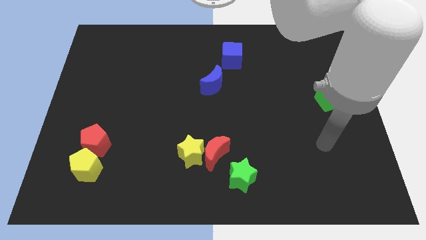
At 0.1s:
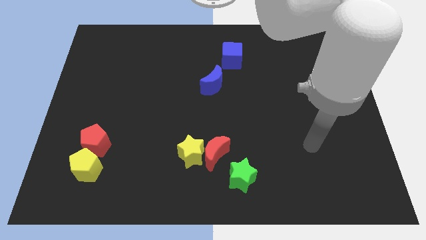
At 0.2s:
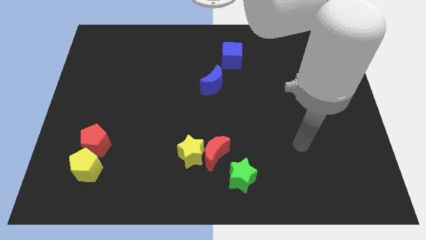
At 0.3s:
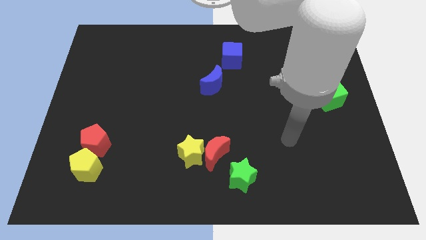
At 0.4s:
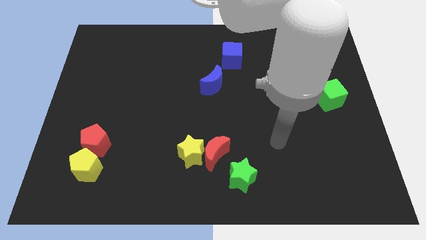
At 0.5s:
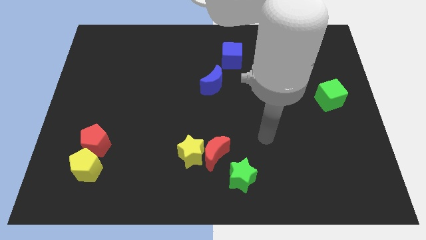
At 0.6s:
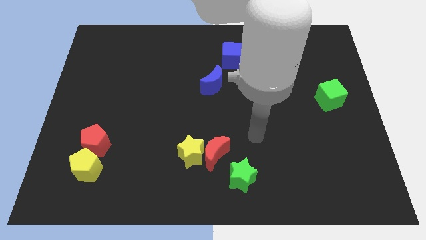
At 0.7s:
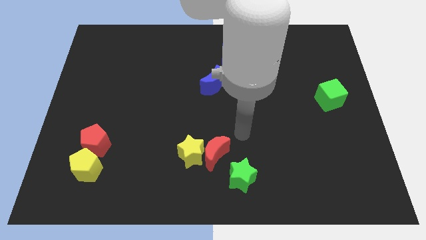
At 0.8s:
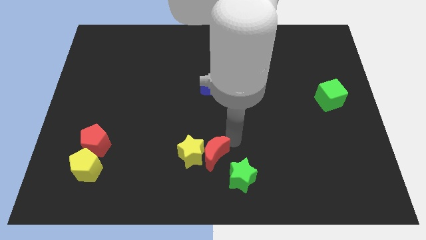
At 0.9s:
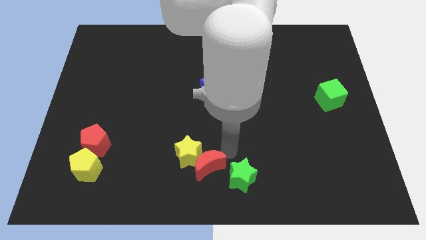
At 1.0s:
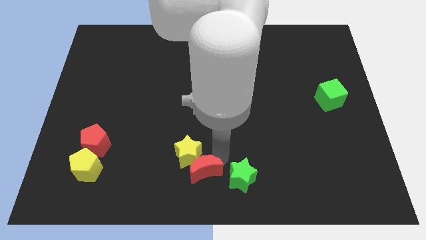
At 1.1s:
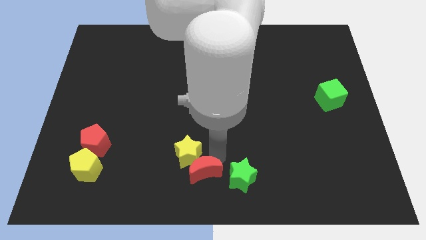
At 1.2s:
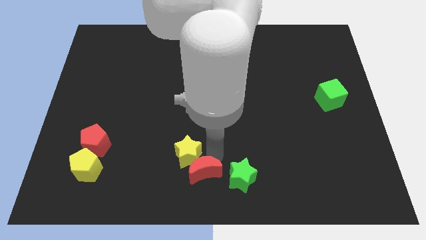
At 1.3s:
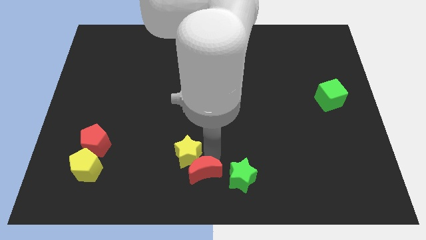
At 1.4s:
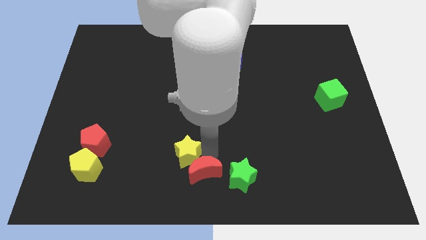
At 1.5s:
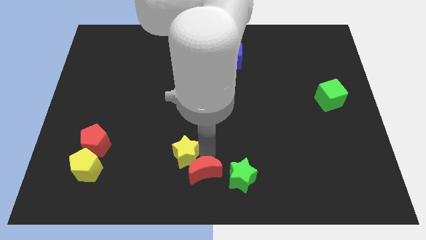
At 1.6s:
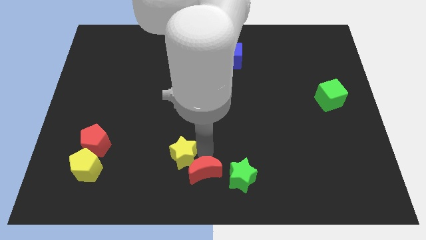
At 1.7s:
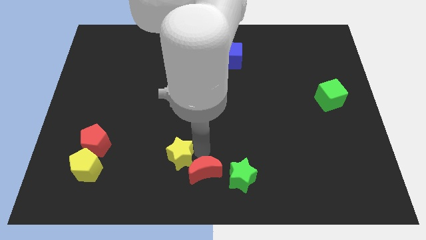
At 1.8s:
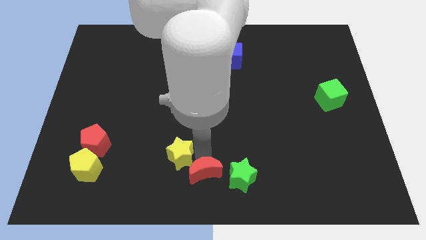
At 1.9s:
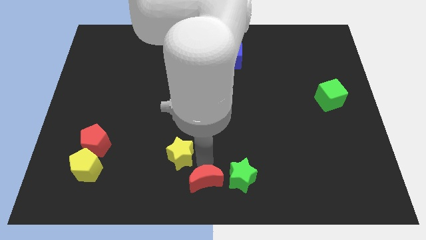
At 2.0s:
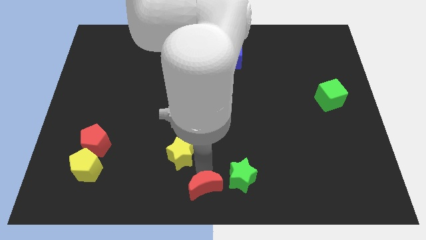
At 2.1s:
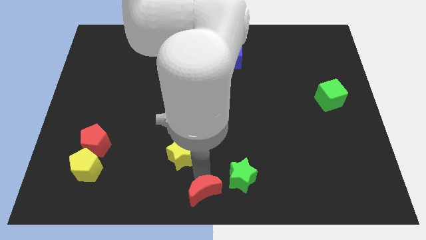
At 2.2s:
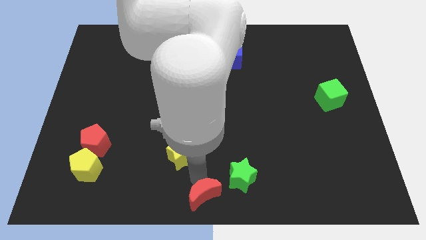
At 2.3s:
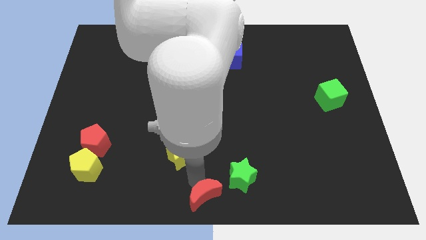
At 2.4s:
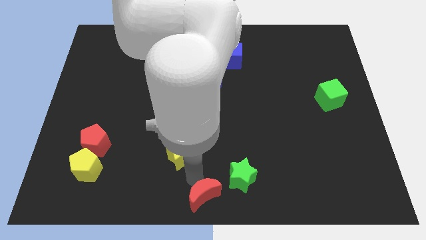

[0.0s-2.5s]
pull the yellow star apart from the red moon

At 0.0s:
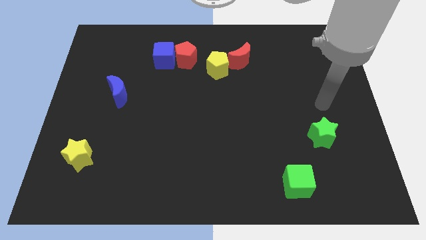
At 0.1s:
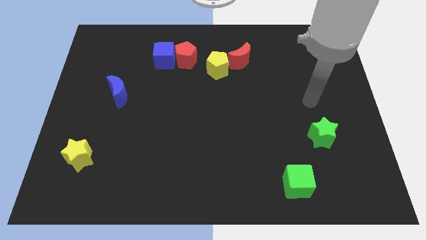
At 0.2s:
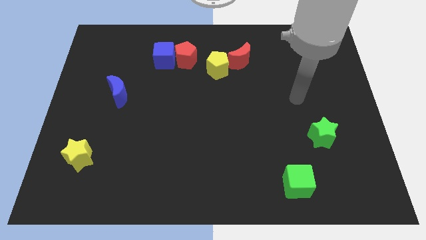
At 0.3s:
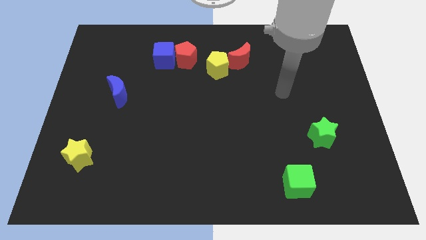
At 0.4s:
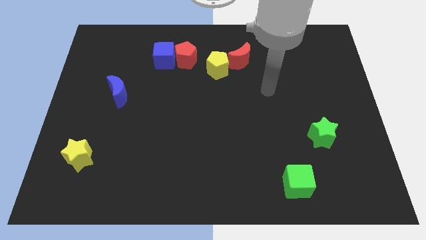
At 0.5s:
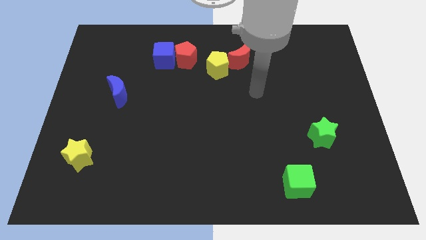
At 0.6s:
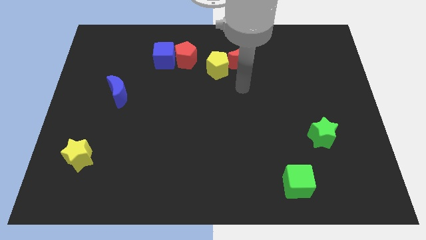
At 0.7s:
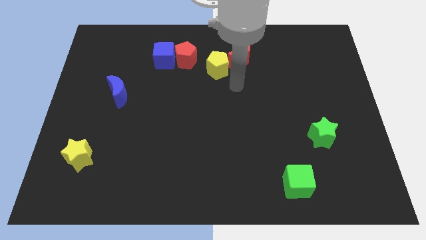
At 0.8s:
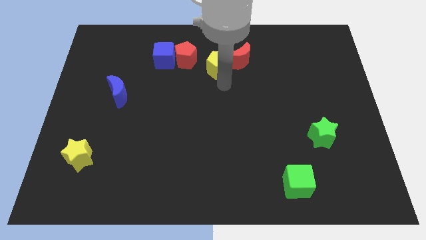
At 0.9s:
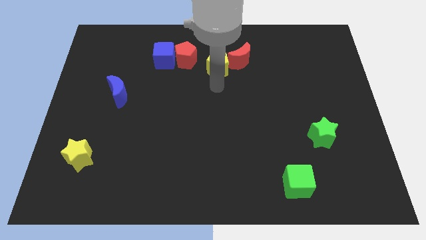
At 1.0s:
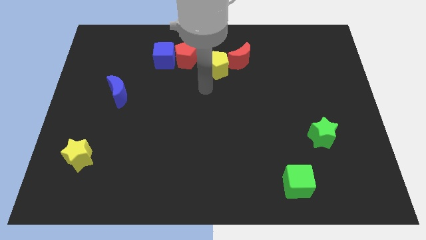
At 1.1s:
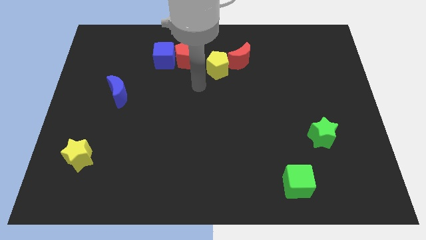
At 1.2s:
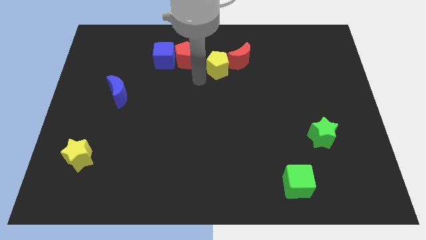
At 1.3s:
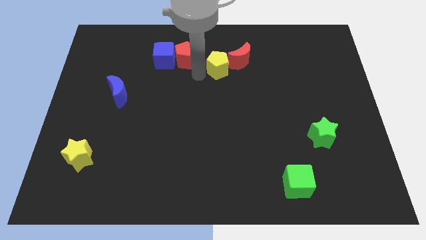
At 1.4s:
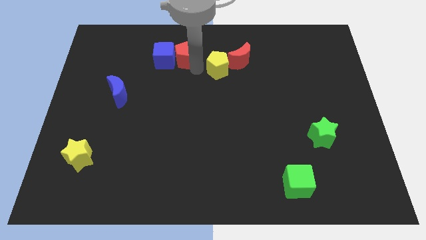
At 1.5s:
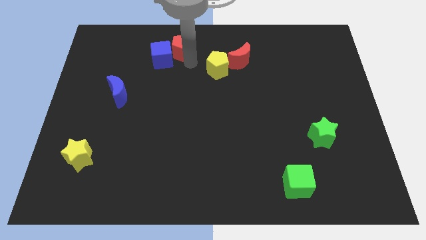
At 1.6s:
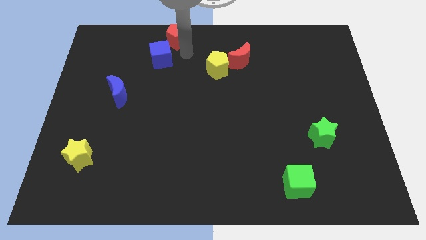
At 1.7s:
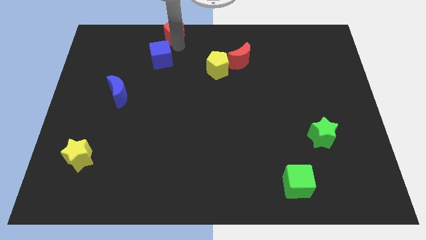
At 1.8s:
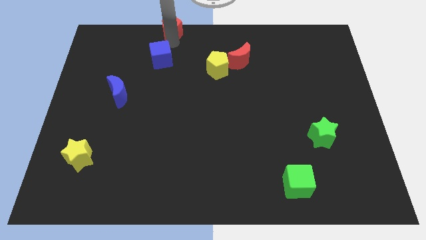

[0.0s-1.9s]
pull the blue cube apart from the red pentagon

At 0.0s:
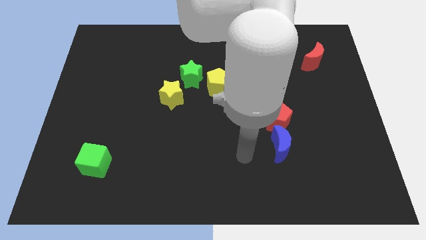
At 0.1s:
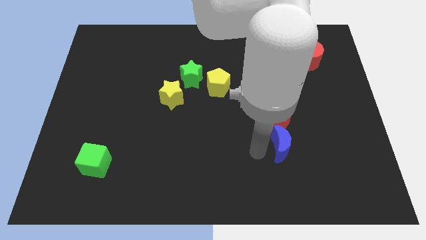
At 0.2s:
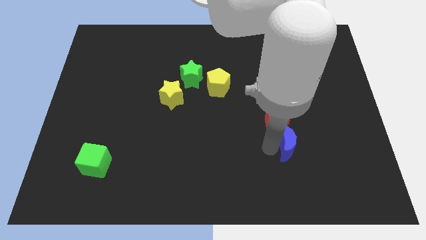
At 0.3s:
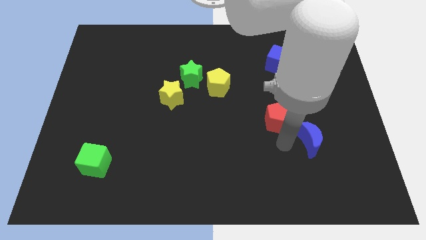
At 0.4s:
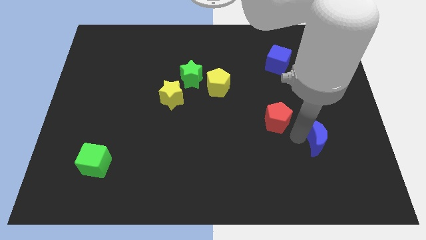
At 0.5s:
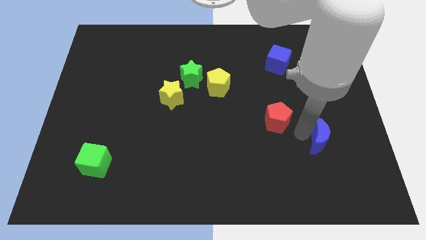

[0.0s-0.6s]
separate the red pentagon from the blue moon

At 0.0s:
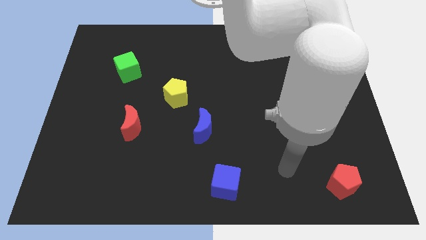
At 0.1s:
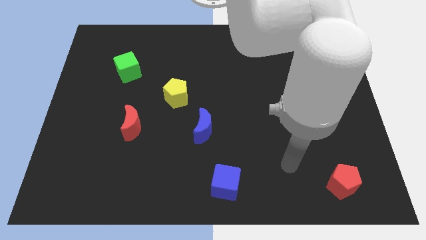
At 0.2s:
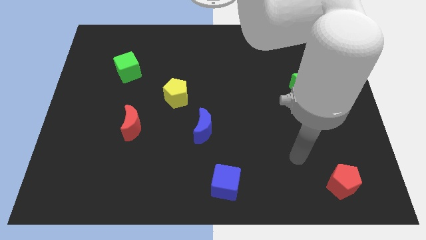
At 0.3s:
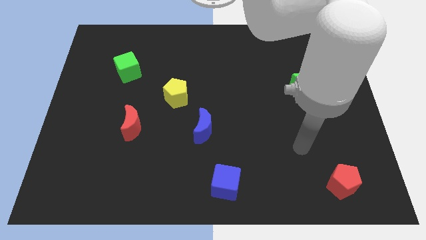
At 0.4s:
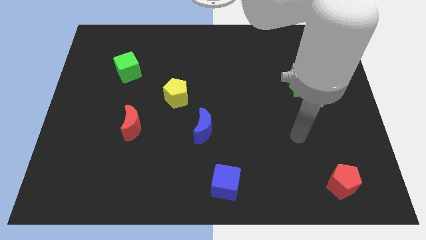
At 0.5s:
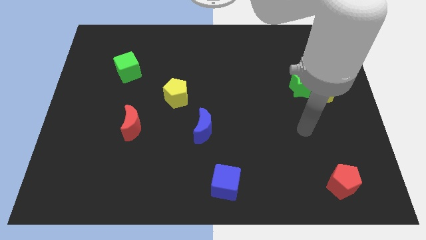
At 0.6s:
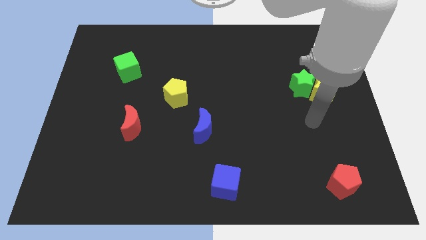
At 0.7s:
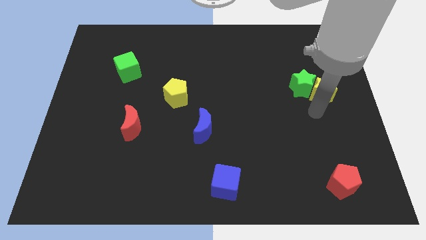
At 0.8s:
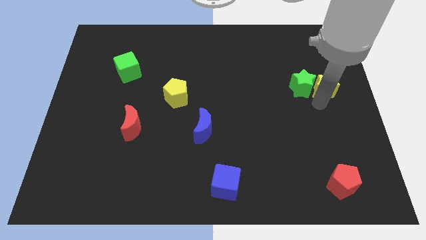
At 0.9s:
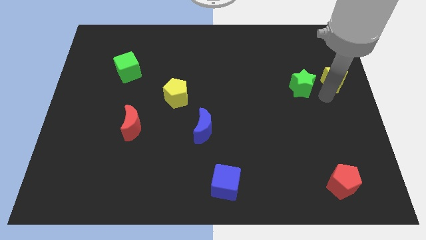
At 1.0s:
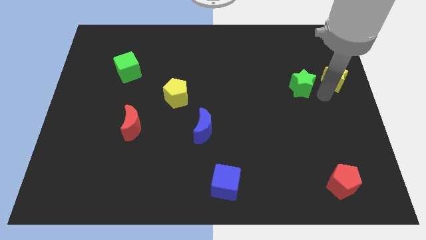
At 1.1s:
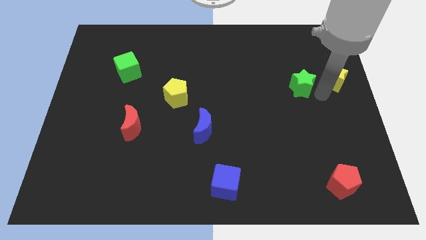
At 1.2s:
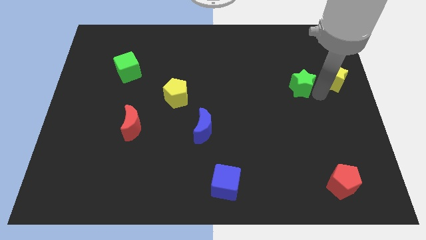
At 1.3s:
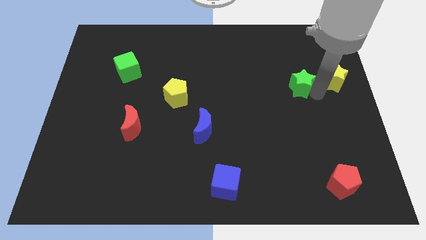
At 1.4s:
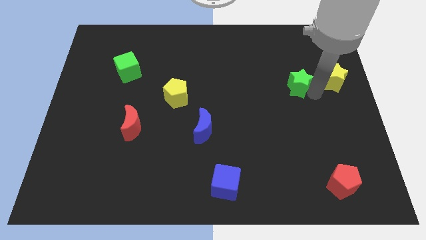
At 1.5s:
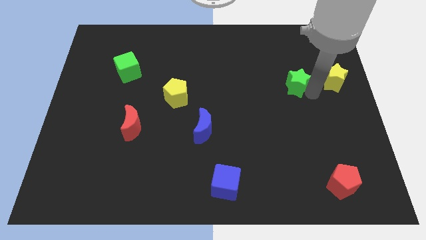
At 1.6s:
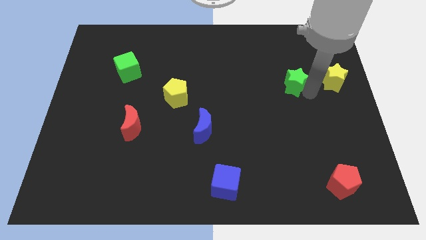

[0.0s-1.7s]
separate the green star from the yellow star

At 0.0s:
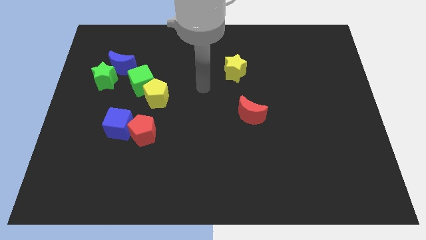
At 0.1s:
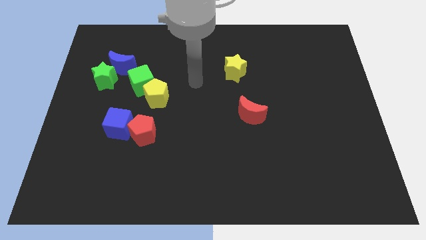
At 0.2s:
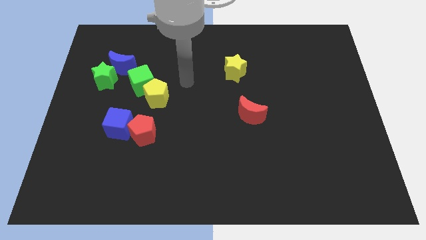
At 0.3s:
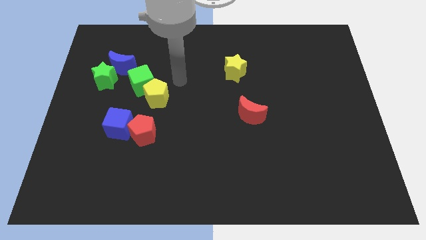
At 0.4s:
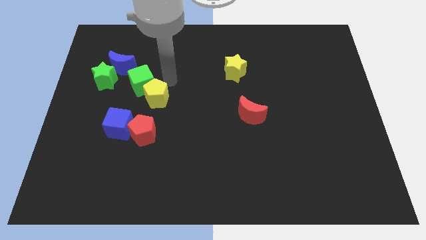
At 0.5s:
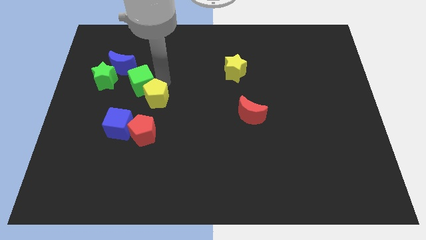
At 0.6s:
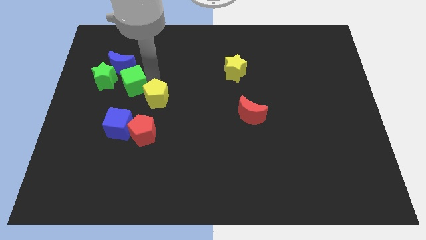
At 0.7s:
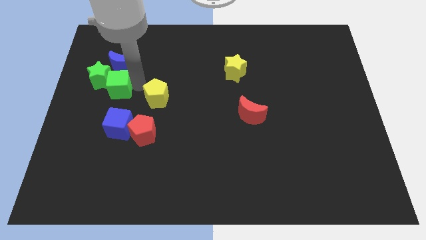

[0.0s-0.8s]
move the yellow pentagon away from the green cube

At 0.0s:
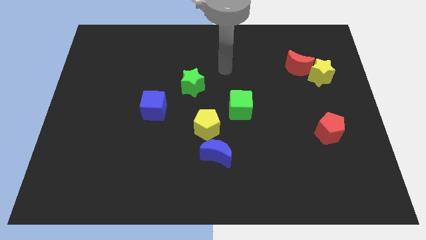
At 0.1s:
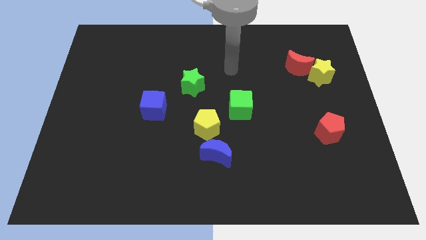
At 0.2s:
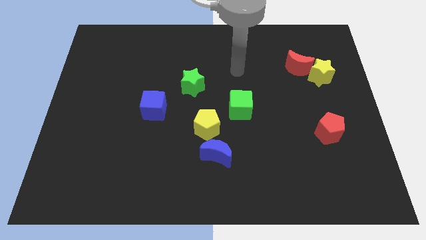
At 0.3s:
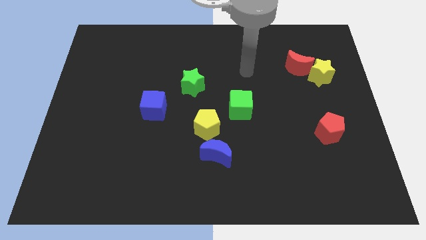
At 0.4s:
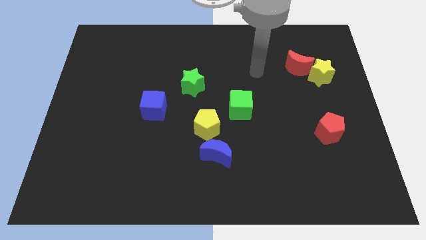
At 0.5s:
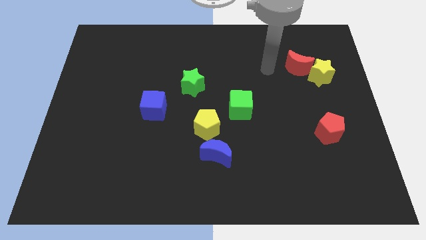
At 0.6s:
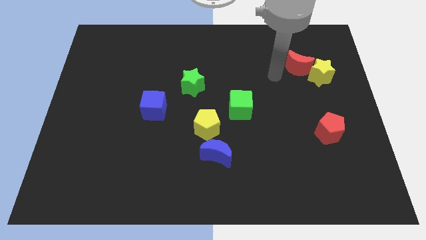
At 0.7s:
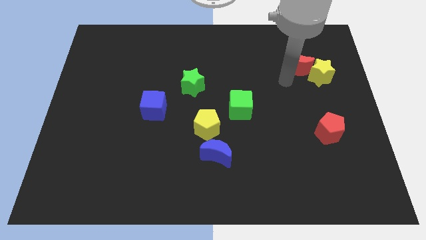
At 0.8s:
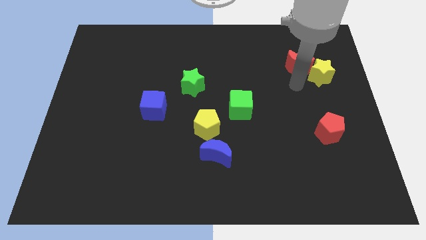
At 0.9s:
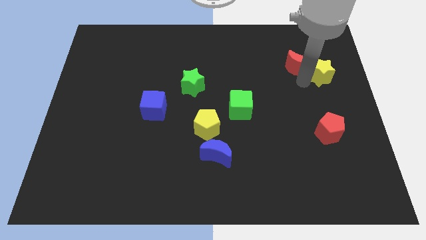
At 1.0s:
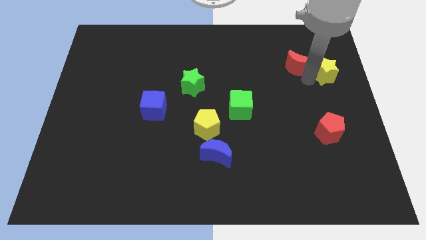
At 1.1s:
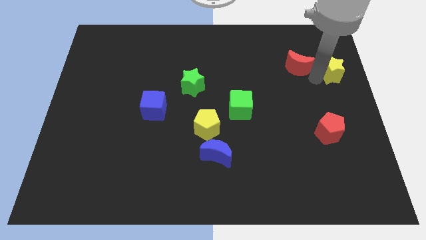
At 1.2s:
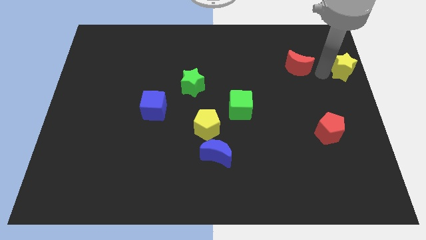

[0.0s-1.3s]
pull the red moon apart from the yellow star

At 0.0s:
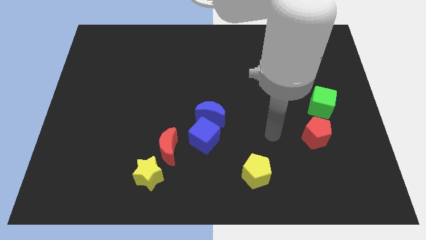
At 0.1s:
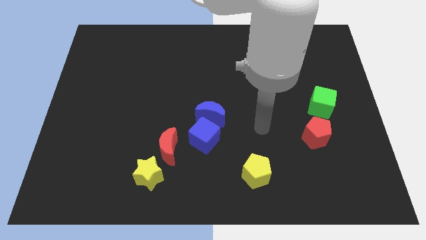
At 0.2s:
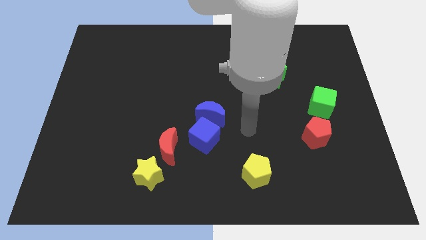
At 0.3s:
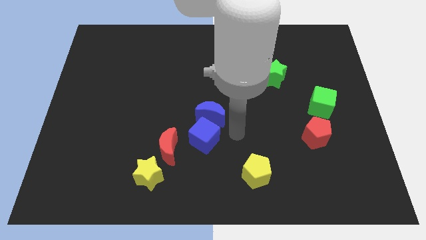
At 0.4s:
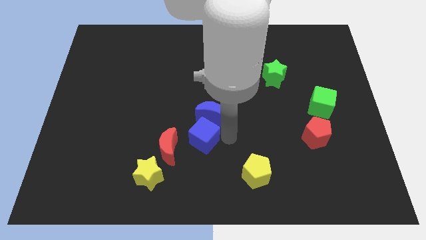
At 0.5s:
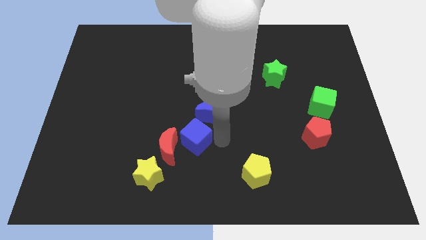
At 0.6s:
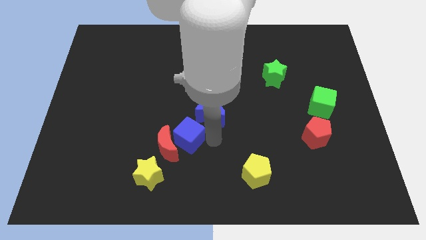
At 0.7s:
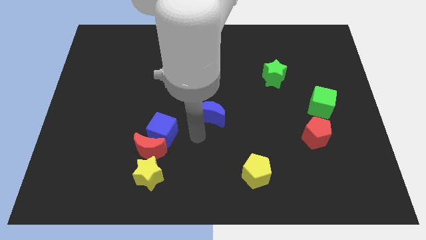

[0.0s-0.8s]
move the blue moon away from the blue cube
